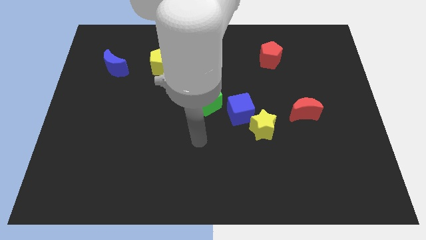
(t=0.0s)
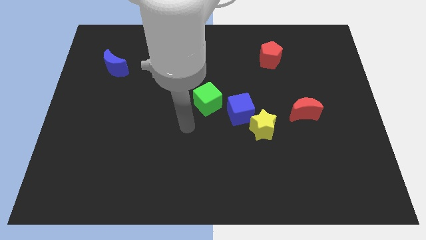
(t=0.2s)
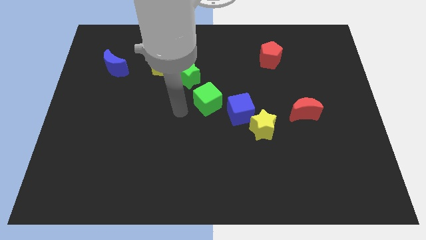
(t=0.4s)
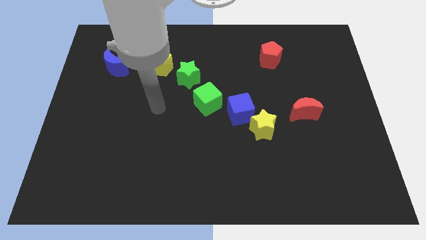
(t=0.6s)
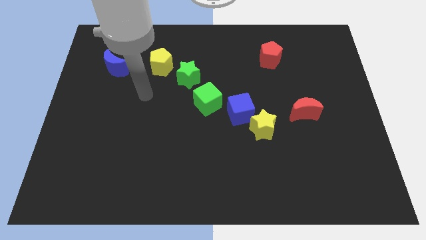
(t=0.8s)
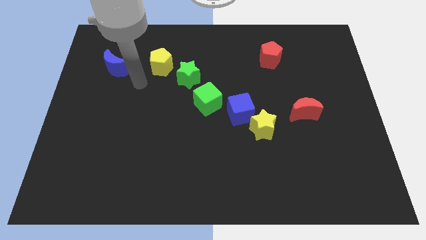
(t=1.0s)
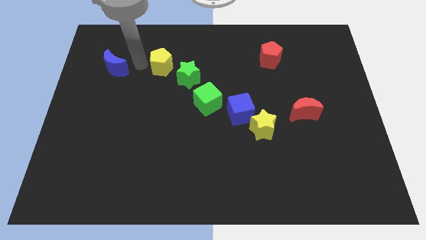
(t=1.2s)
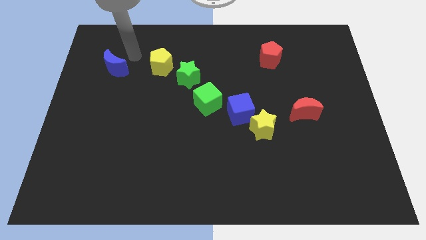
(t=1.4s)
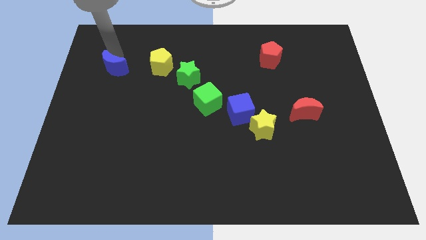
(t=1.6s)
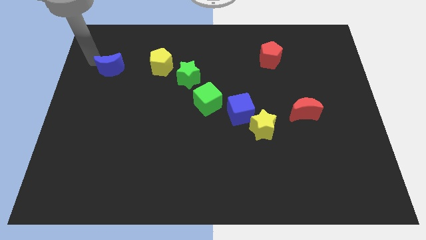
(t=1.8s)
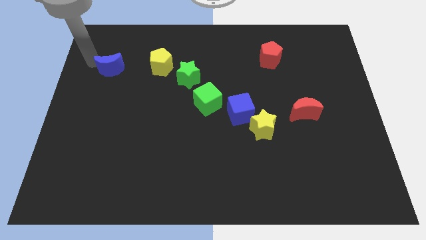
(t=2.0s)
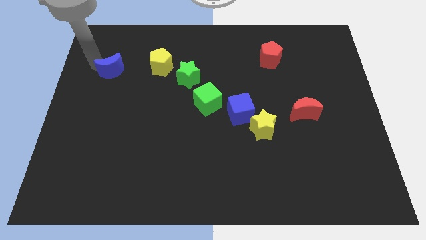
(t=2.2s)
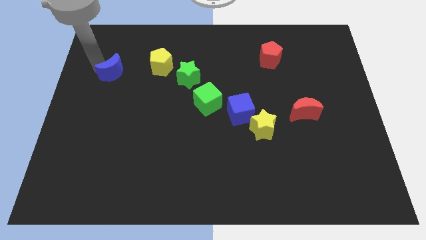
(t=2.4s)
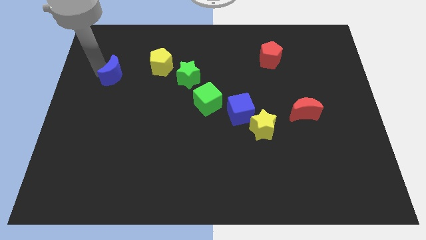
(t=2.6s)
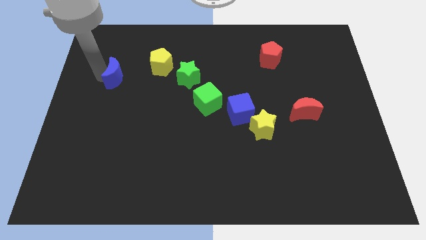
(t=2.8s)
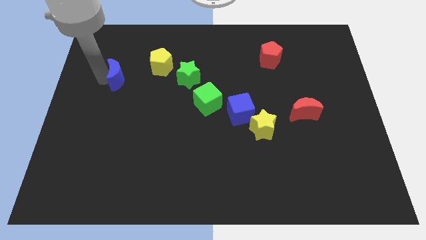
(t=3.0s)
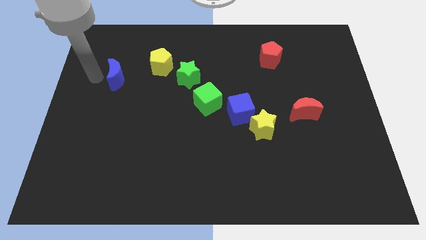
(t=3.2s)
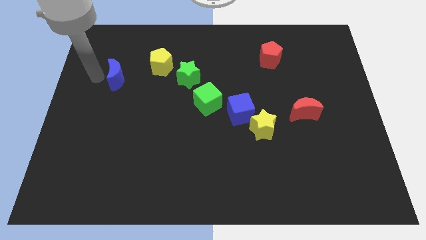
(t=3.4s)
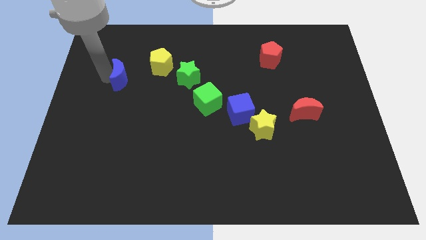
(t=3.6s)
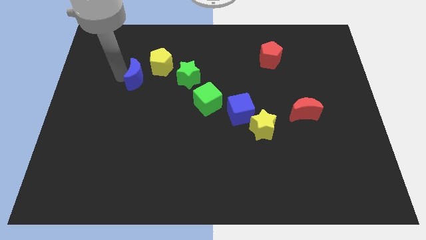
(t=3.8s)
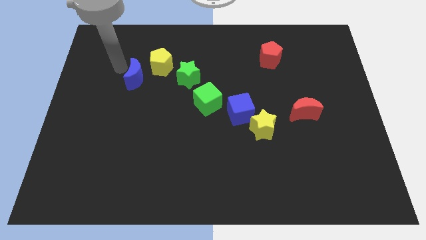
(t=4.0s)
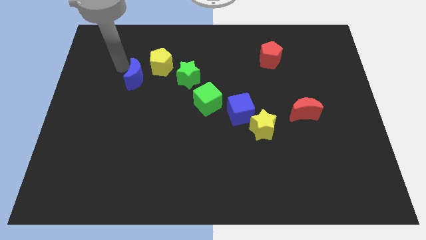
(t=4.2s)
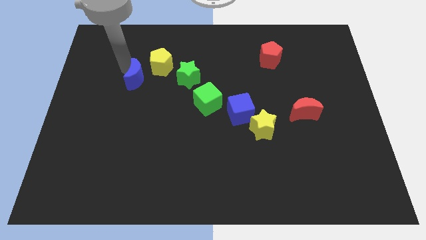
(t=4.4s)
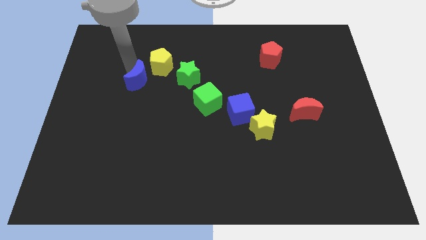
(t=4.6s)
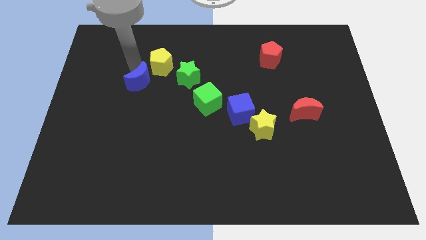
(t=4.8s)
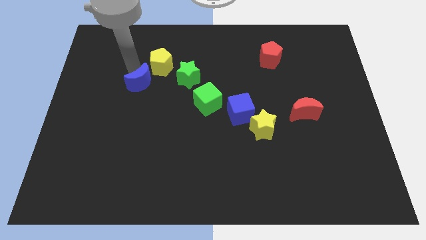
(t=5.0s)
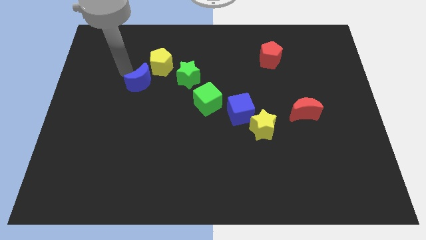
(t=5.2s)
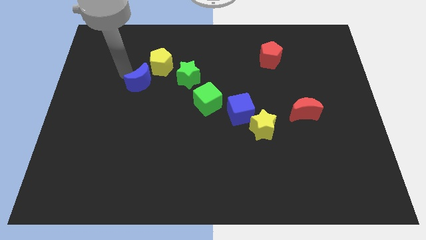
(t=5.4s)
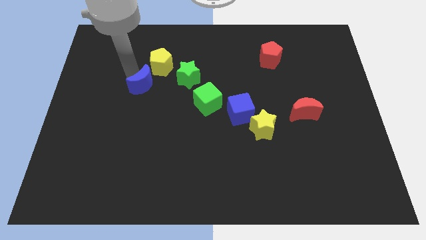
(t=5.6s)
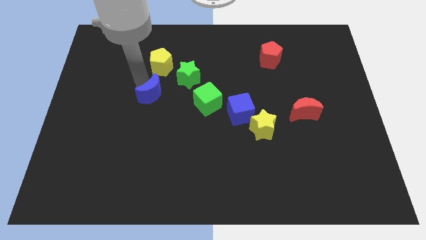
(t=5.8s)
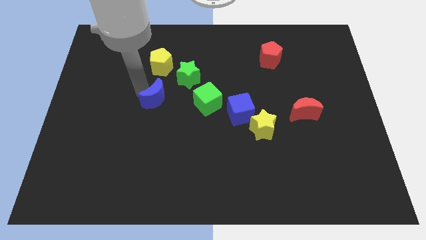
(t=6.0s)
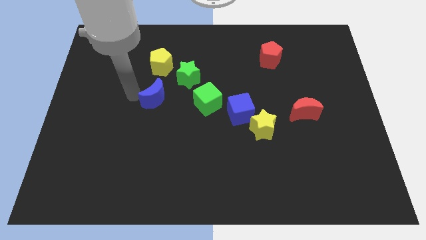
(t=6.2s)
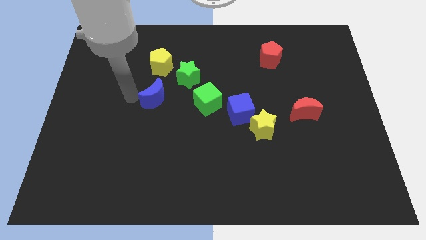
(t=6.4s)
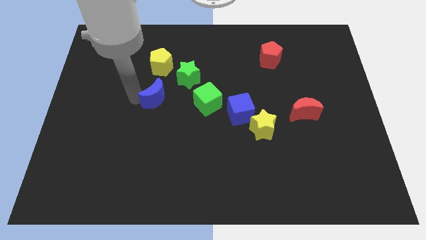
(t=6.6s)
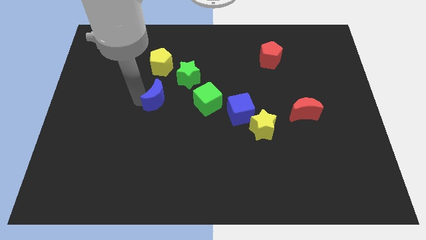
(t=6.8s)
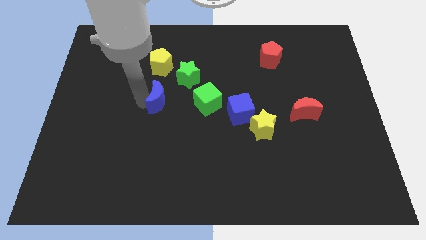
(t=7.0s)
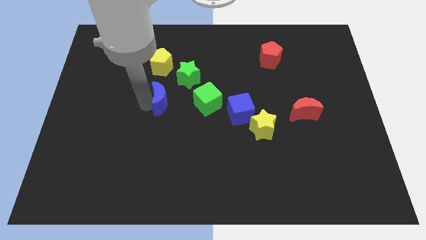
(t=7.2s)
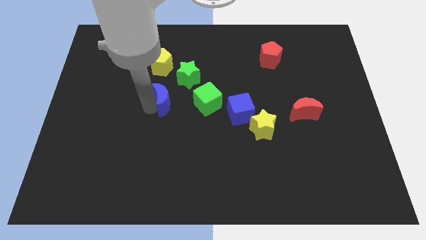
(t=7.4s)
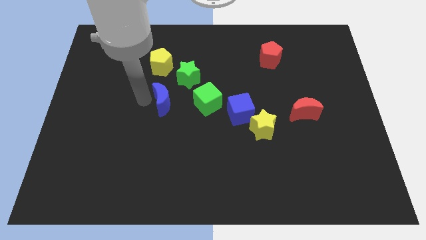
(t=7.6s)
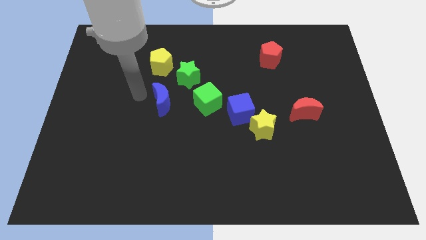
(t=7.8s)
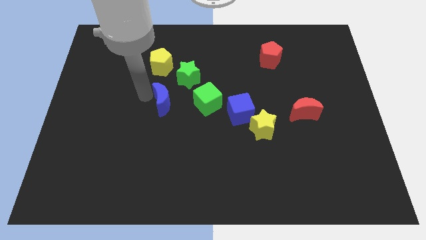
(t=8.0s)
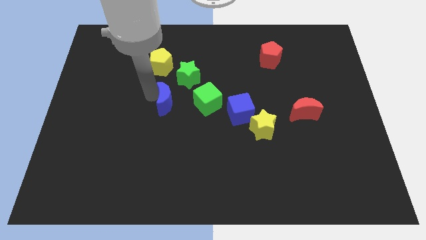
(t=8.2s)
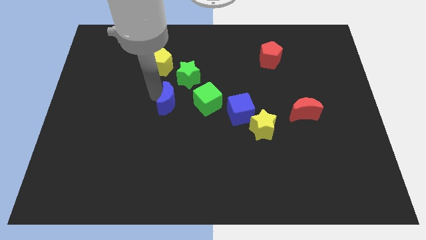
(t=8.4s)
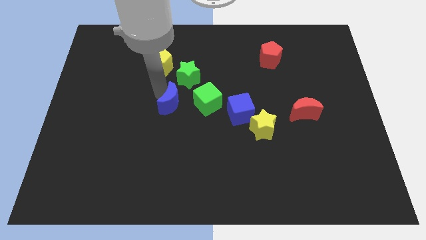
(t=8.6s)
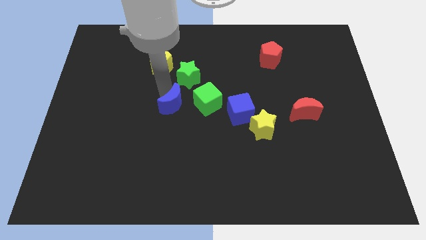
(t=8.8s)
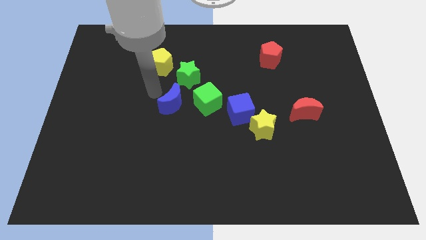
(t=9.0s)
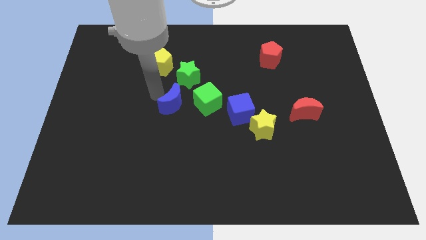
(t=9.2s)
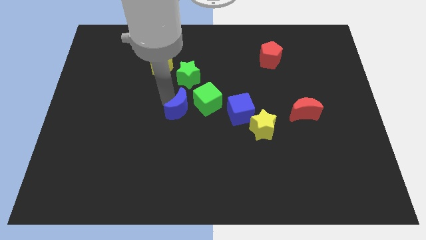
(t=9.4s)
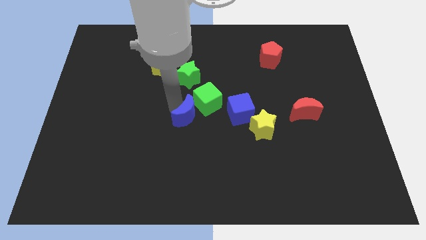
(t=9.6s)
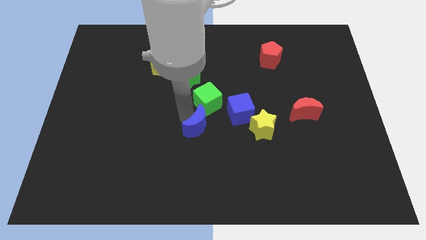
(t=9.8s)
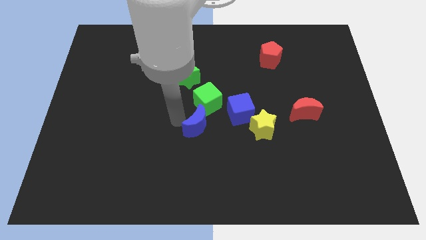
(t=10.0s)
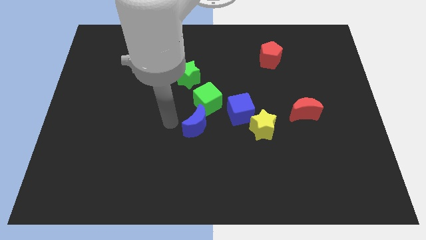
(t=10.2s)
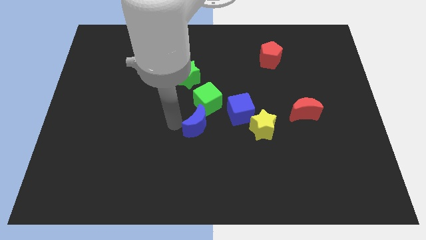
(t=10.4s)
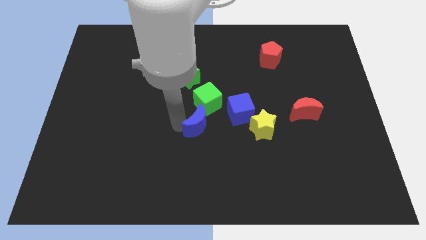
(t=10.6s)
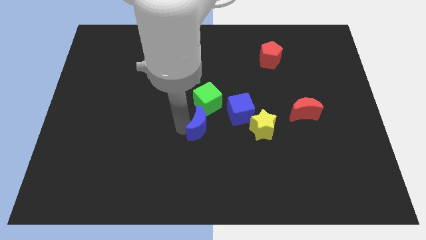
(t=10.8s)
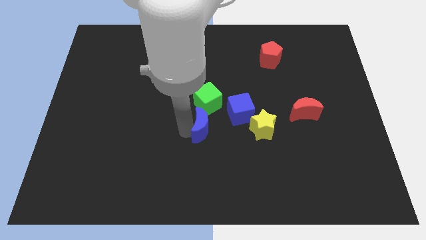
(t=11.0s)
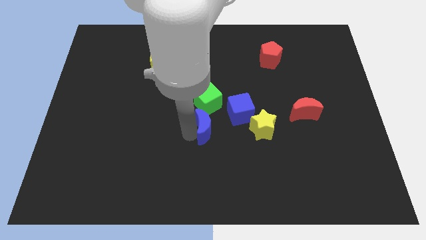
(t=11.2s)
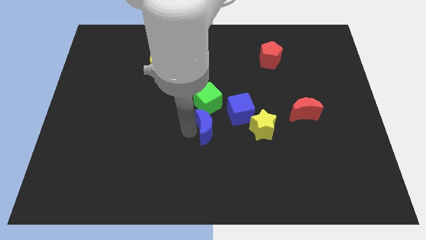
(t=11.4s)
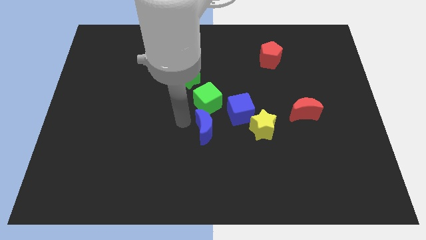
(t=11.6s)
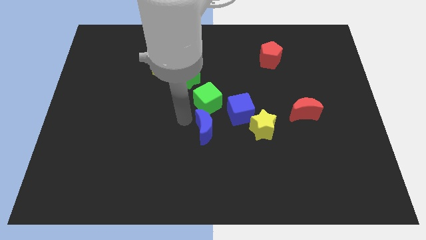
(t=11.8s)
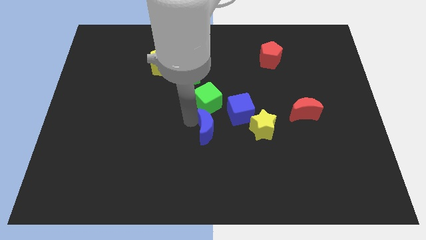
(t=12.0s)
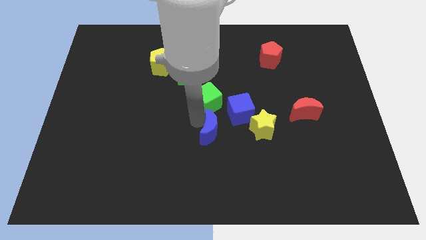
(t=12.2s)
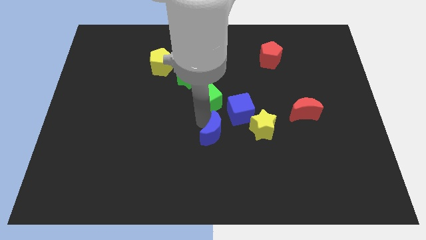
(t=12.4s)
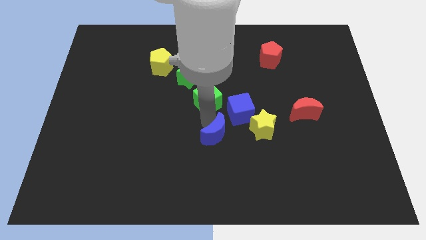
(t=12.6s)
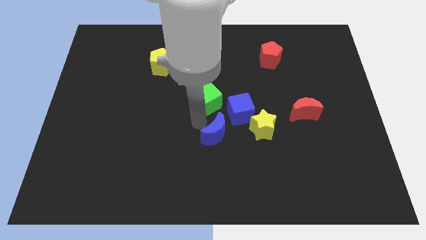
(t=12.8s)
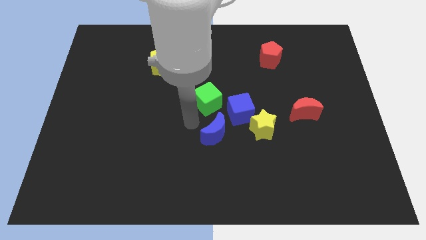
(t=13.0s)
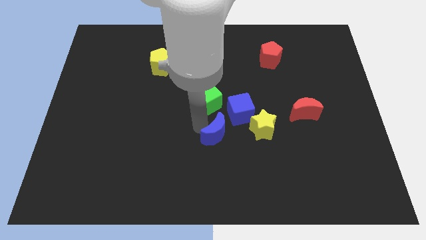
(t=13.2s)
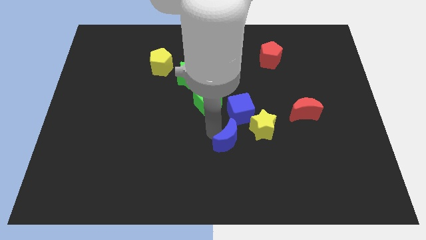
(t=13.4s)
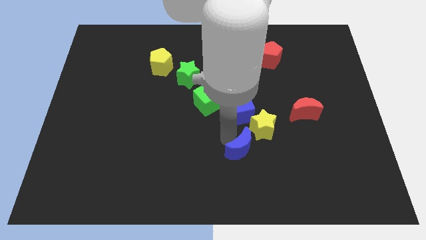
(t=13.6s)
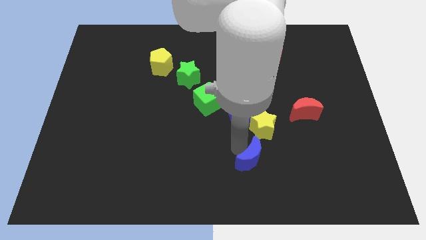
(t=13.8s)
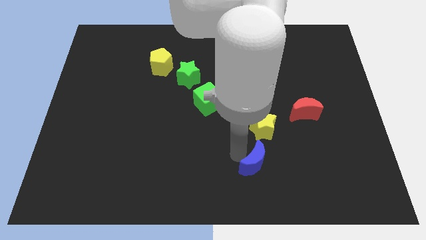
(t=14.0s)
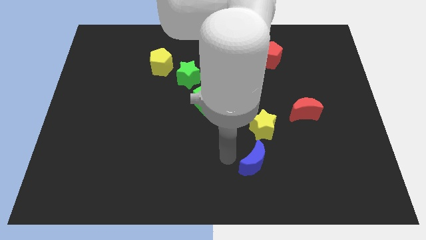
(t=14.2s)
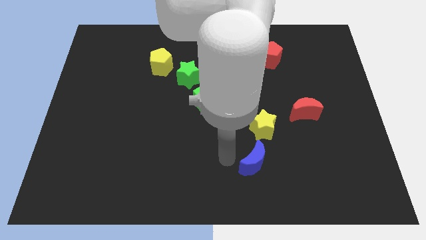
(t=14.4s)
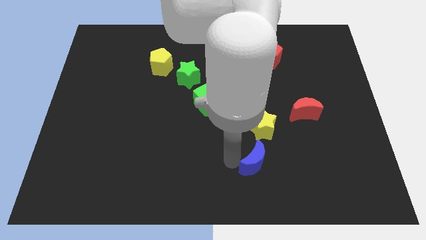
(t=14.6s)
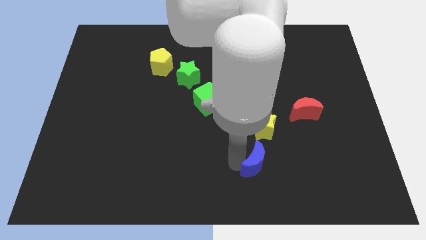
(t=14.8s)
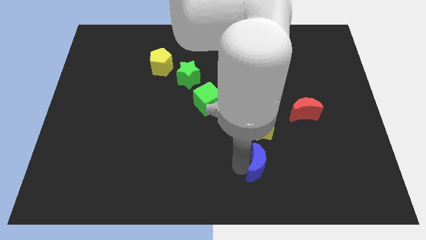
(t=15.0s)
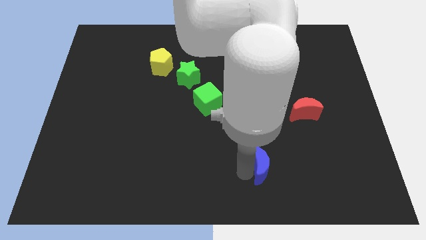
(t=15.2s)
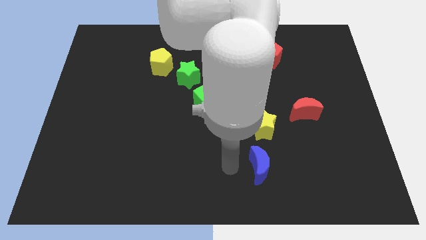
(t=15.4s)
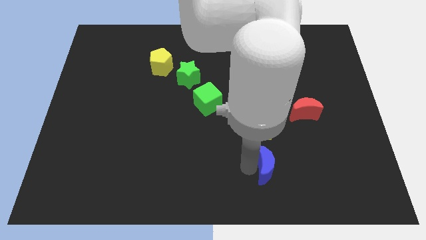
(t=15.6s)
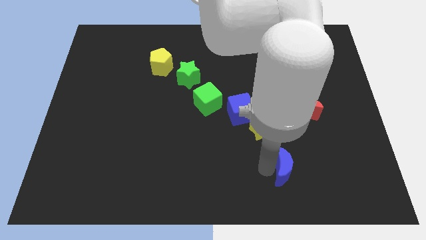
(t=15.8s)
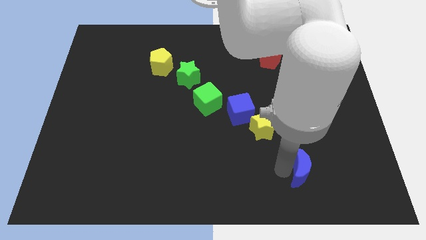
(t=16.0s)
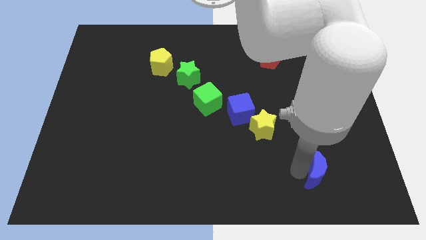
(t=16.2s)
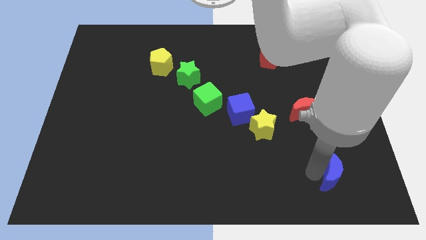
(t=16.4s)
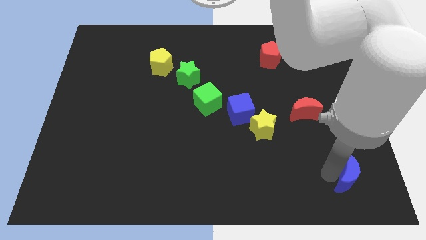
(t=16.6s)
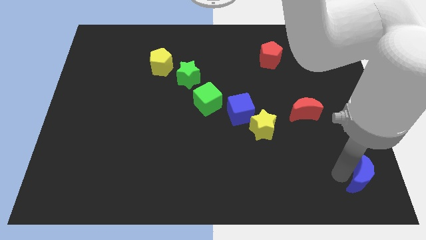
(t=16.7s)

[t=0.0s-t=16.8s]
move the blue moon to the bottom right of the board
